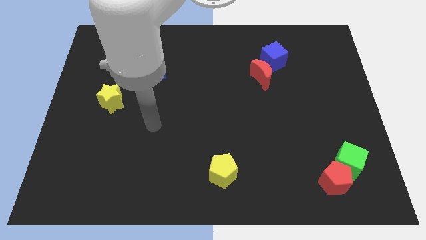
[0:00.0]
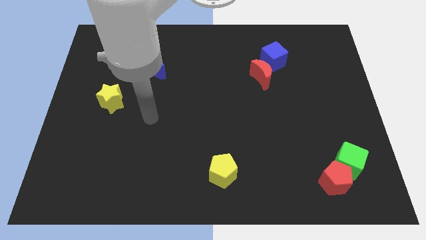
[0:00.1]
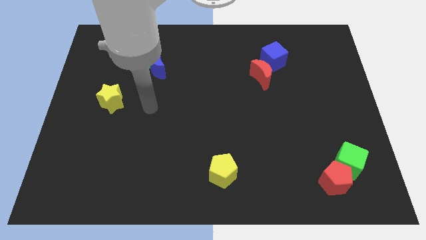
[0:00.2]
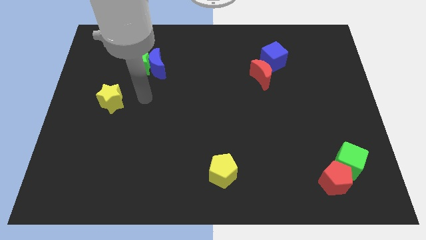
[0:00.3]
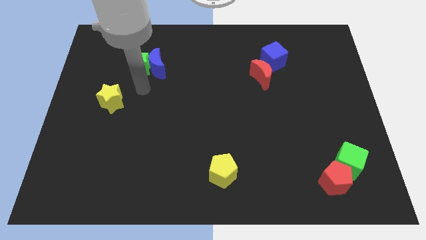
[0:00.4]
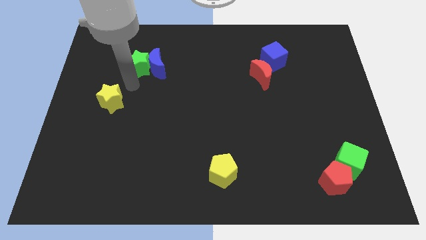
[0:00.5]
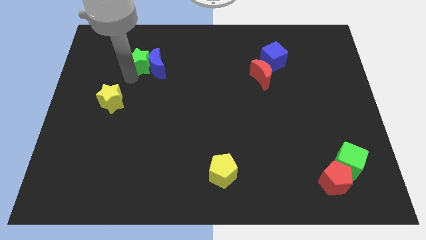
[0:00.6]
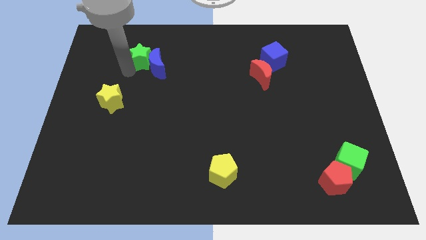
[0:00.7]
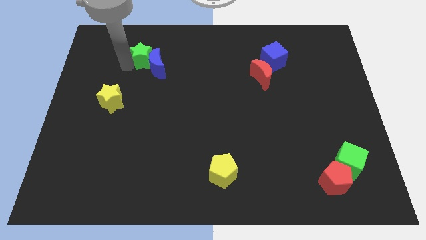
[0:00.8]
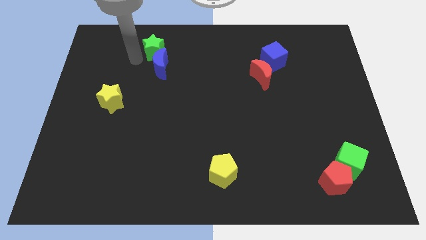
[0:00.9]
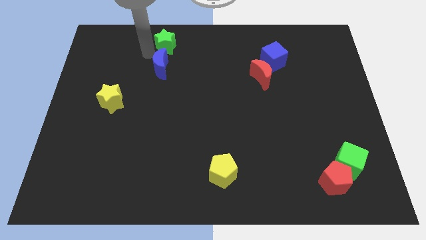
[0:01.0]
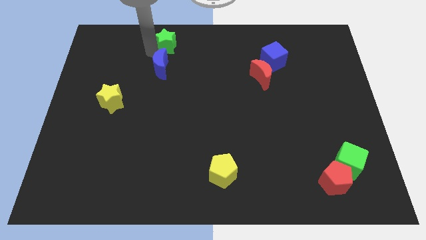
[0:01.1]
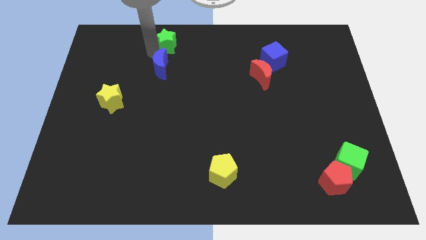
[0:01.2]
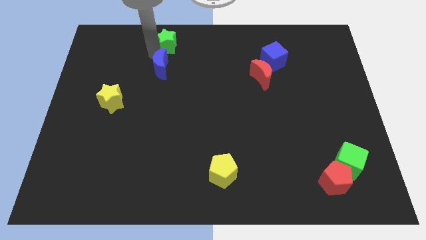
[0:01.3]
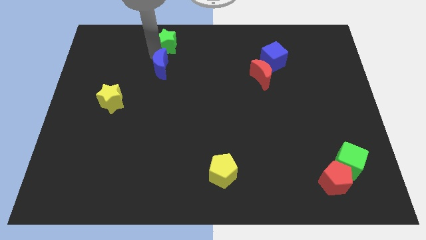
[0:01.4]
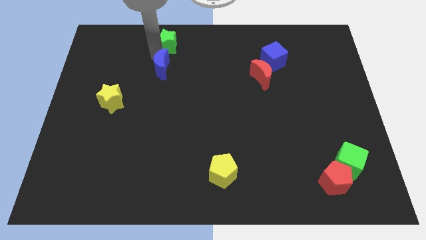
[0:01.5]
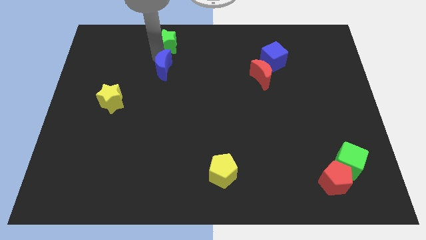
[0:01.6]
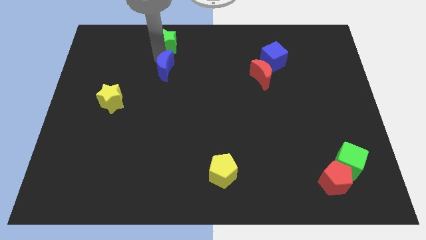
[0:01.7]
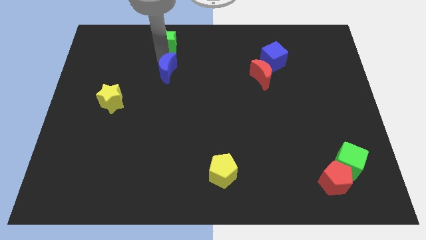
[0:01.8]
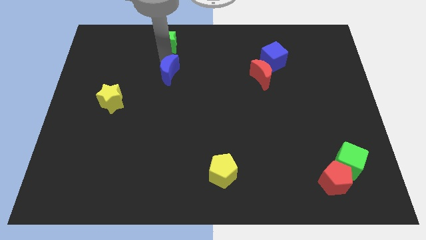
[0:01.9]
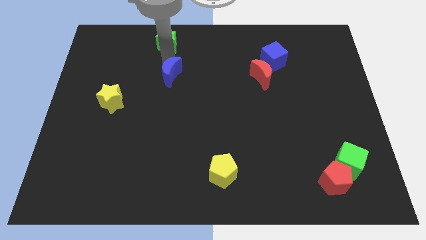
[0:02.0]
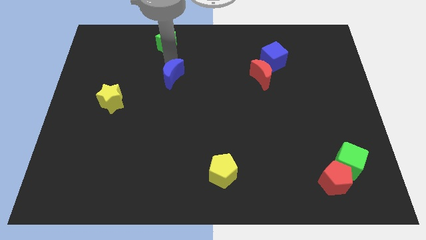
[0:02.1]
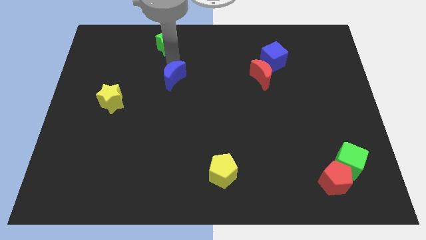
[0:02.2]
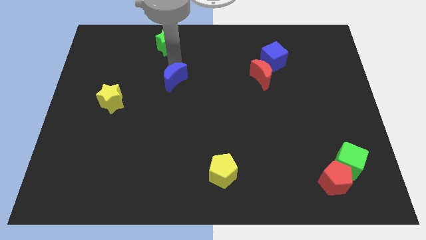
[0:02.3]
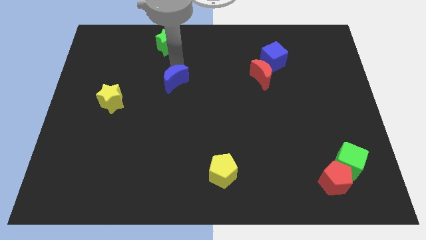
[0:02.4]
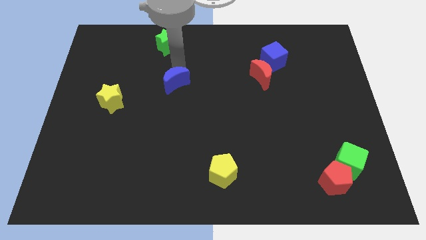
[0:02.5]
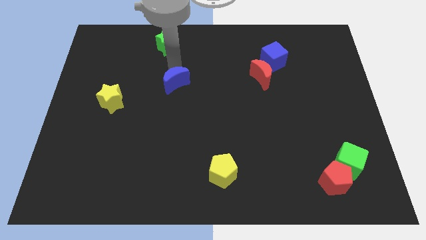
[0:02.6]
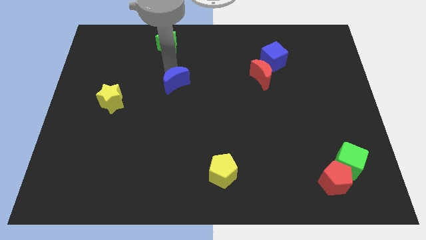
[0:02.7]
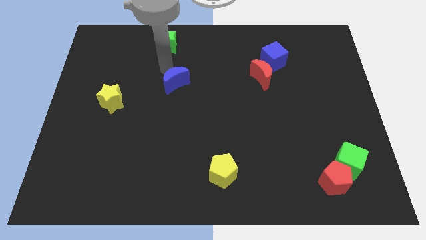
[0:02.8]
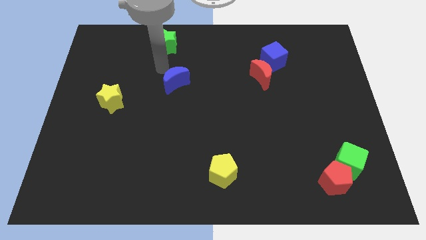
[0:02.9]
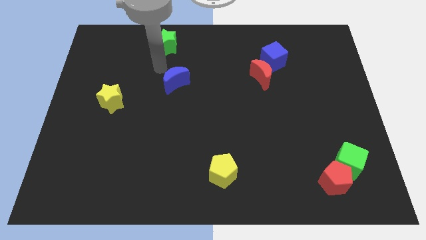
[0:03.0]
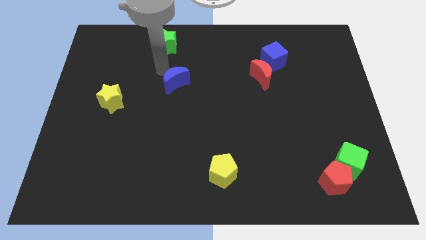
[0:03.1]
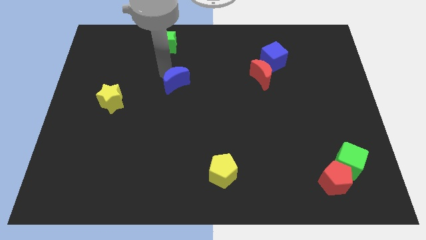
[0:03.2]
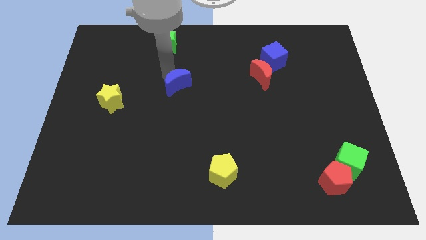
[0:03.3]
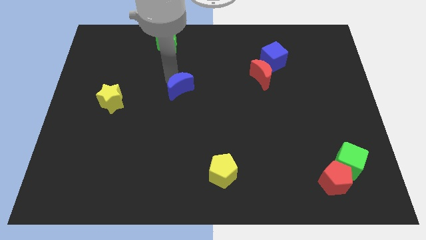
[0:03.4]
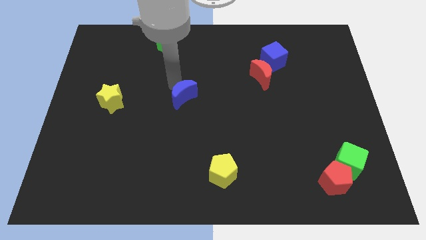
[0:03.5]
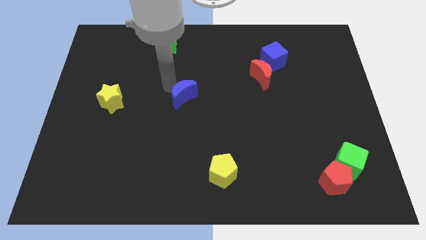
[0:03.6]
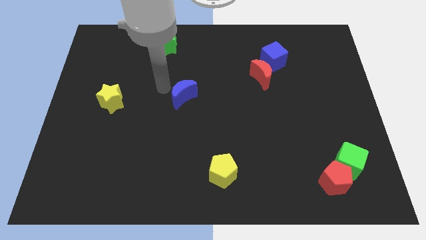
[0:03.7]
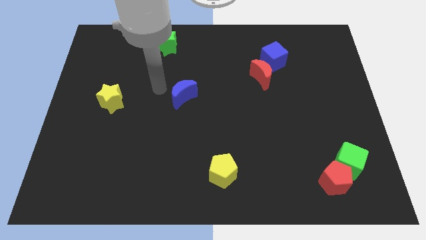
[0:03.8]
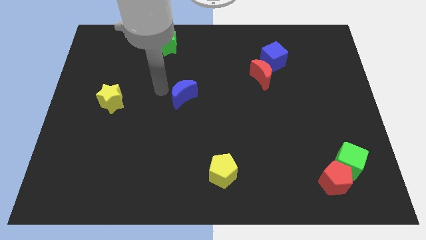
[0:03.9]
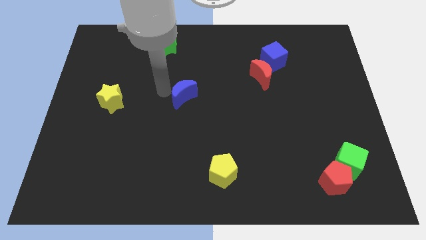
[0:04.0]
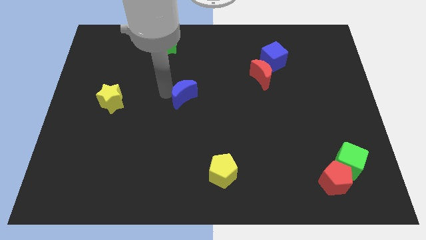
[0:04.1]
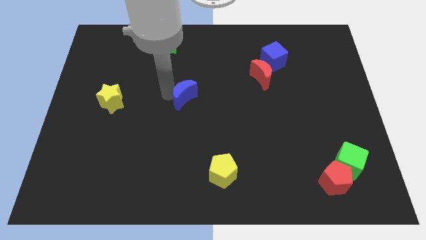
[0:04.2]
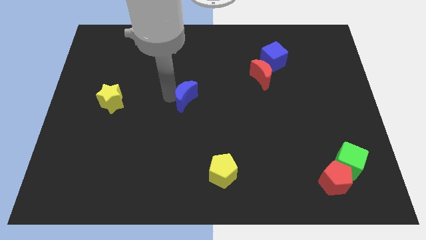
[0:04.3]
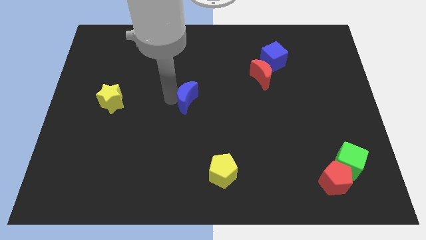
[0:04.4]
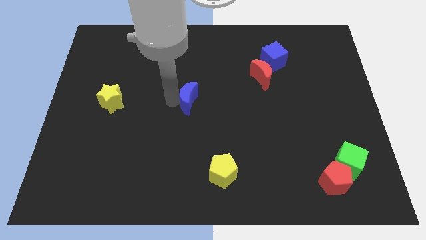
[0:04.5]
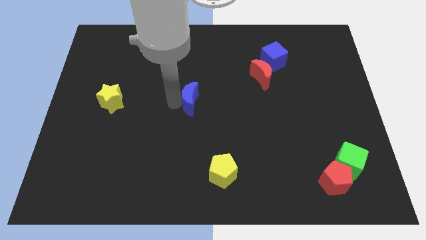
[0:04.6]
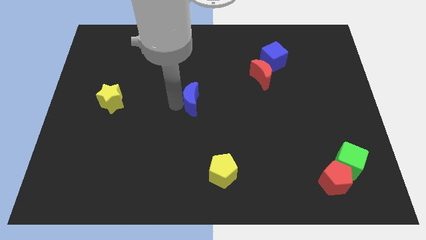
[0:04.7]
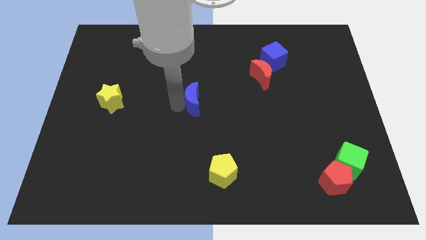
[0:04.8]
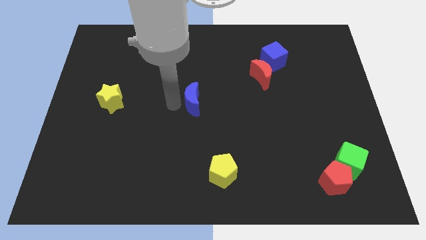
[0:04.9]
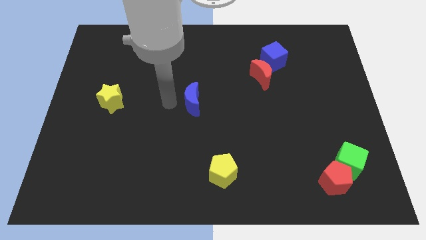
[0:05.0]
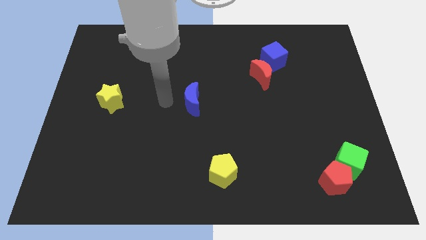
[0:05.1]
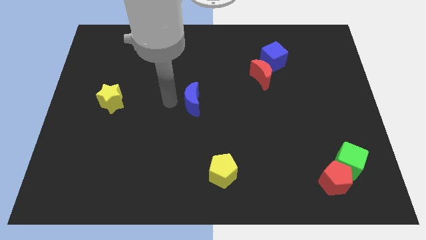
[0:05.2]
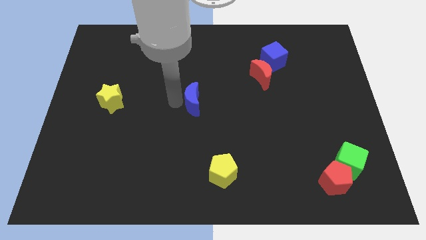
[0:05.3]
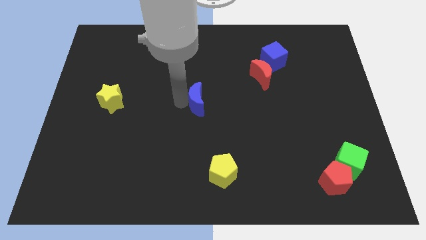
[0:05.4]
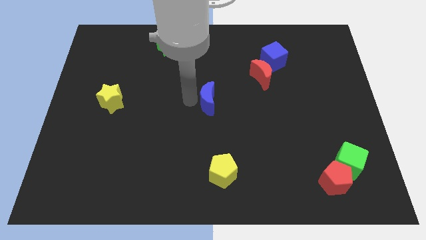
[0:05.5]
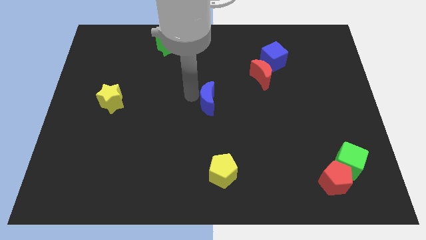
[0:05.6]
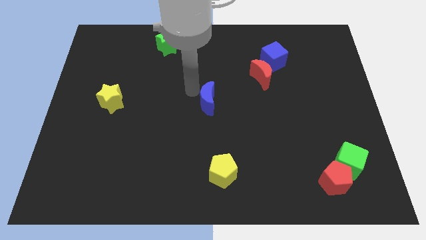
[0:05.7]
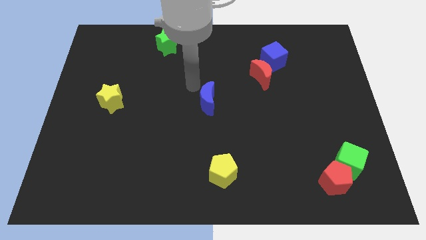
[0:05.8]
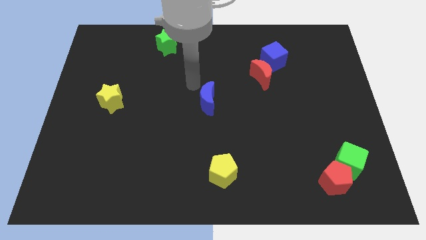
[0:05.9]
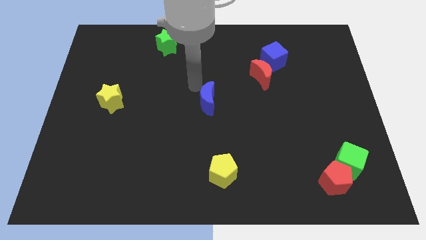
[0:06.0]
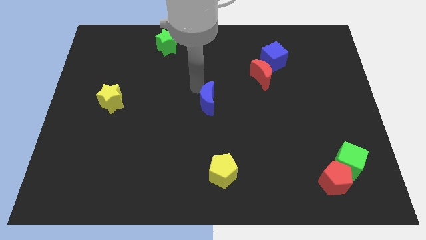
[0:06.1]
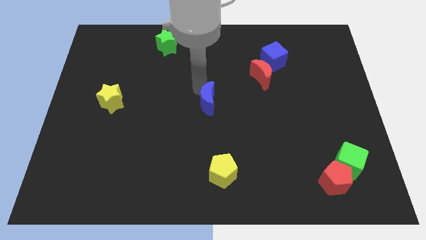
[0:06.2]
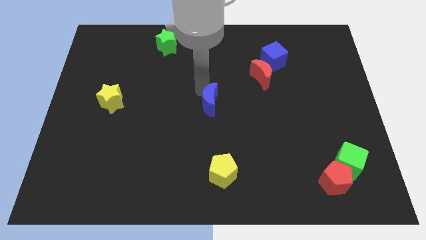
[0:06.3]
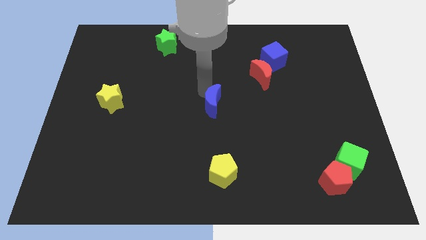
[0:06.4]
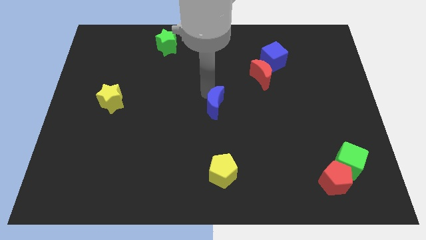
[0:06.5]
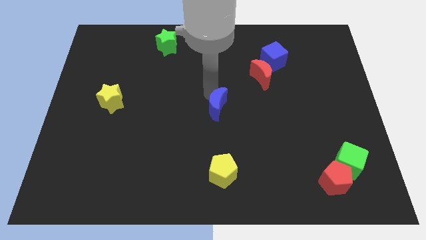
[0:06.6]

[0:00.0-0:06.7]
push the blue moon diagonally down and right

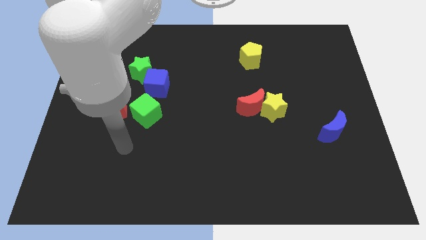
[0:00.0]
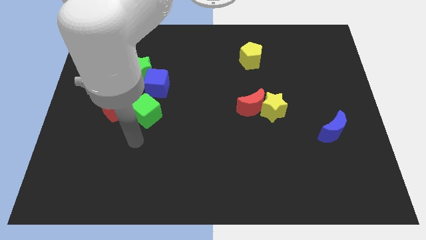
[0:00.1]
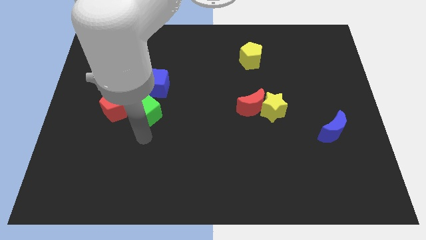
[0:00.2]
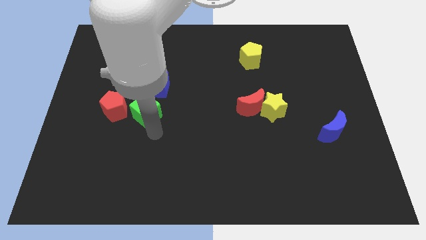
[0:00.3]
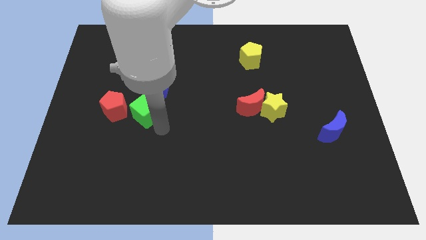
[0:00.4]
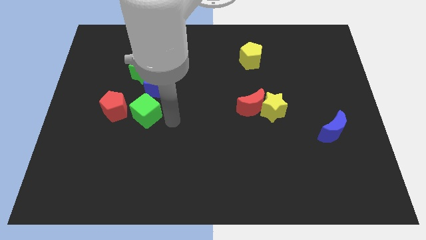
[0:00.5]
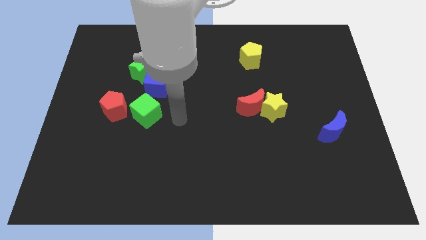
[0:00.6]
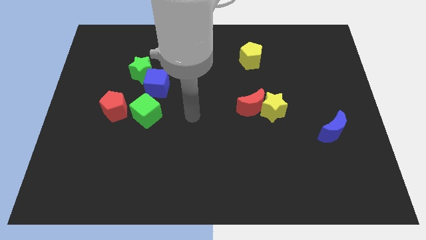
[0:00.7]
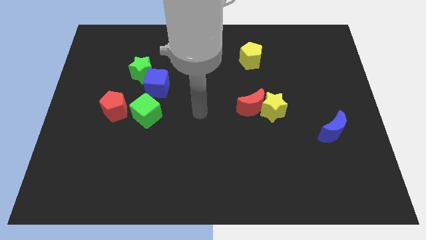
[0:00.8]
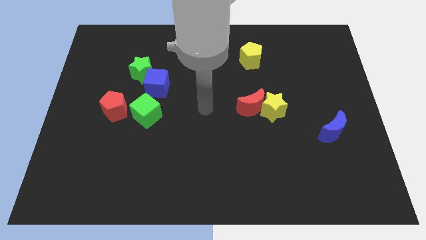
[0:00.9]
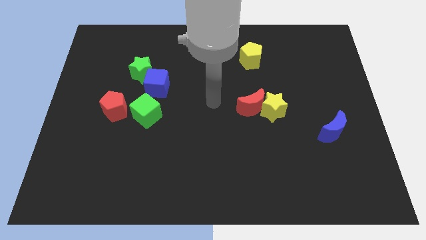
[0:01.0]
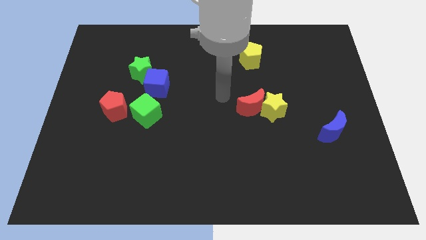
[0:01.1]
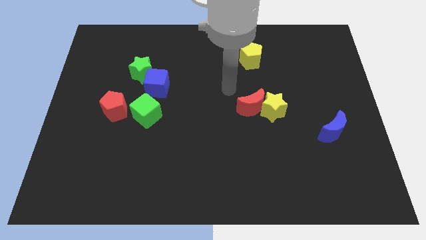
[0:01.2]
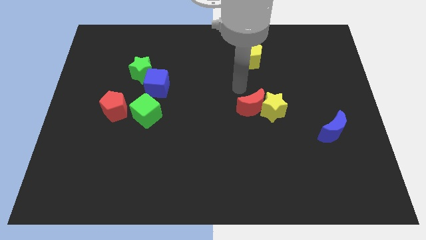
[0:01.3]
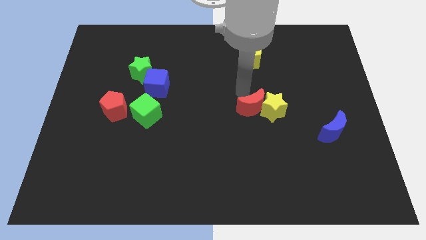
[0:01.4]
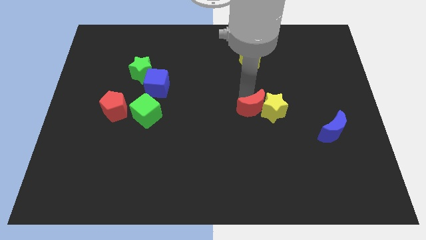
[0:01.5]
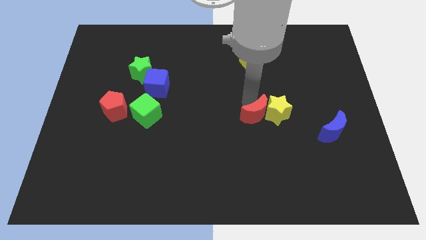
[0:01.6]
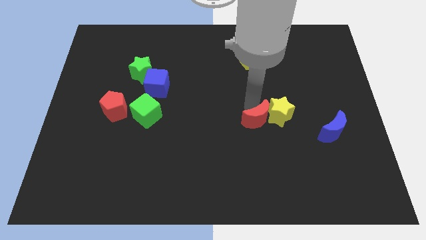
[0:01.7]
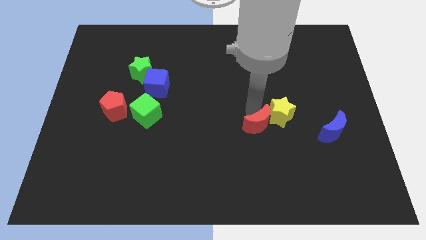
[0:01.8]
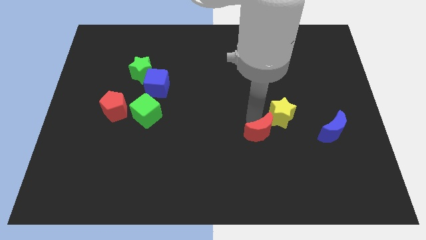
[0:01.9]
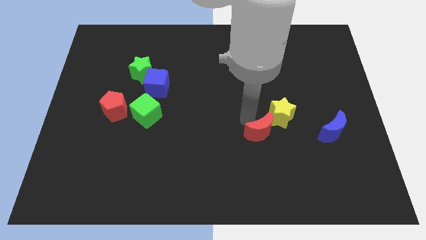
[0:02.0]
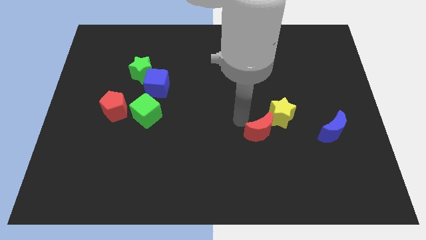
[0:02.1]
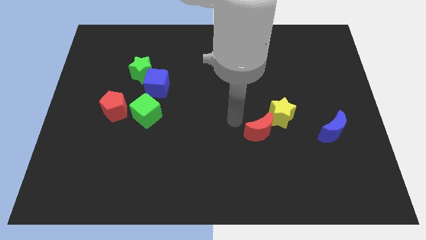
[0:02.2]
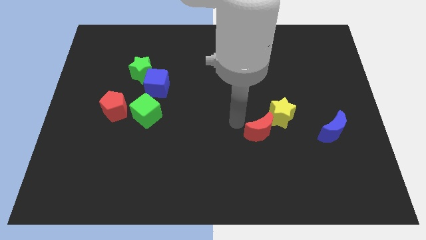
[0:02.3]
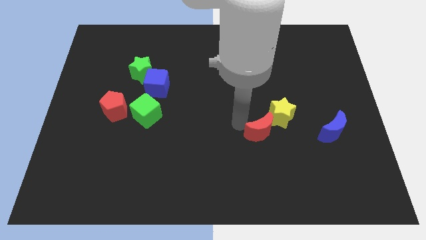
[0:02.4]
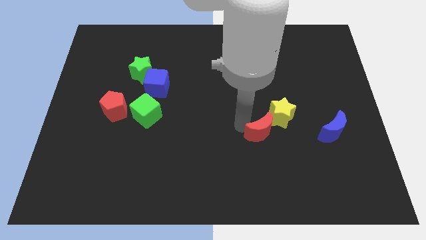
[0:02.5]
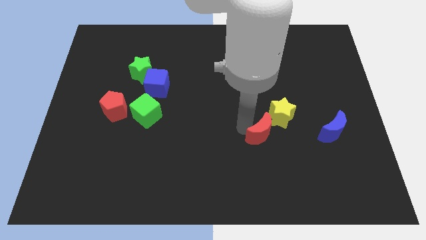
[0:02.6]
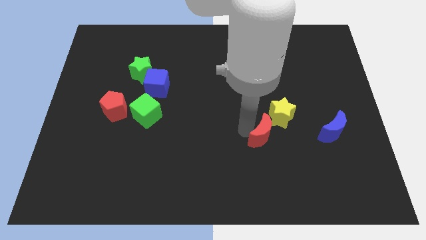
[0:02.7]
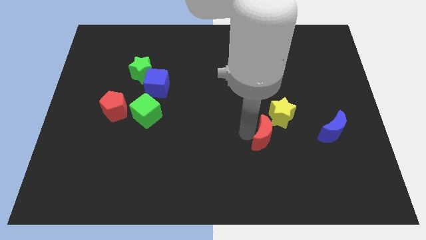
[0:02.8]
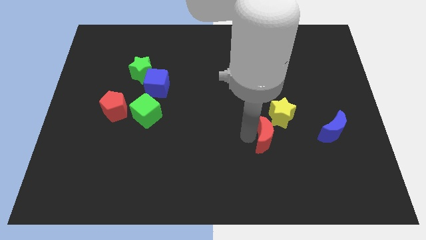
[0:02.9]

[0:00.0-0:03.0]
slightly move the red moon down and to the right
